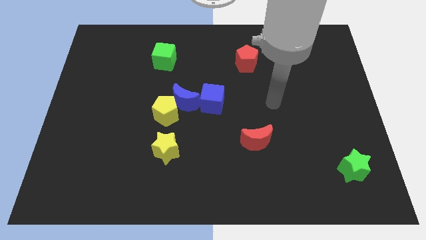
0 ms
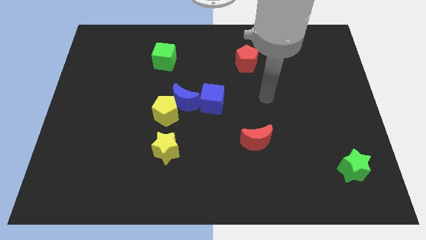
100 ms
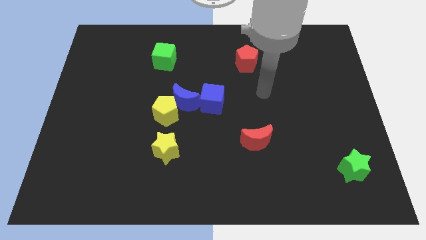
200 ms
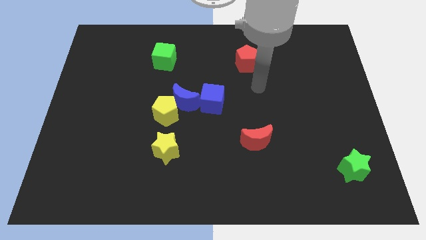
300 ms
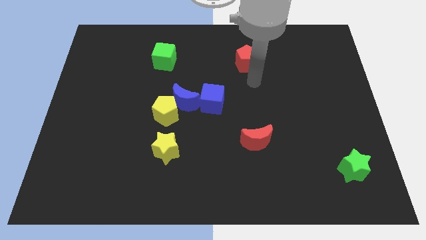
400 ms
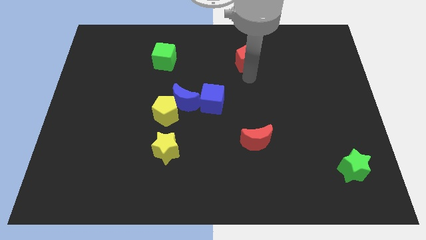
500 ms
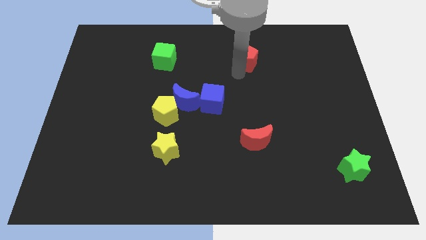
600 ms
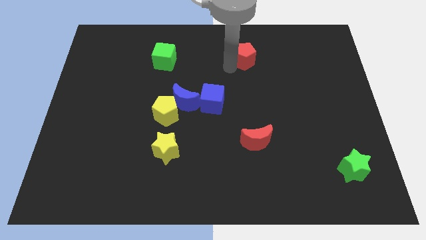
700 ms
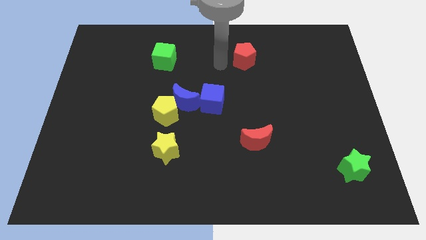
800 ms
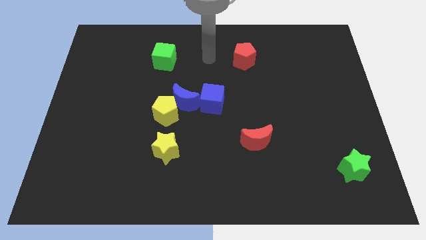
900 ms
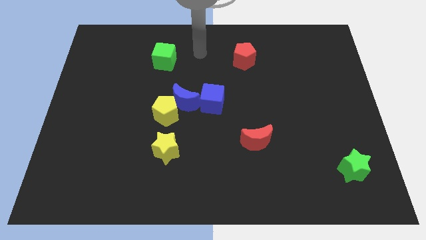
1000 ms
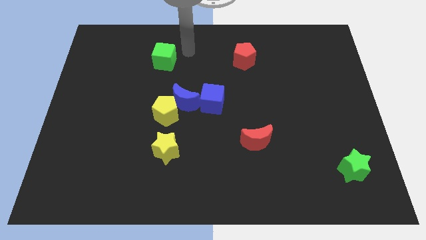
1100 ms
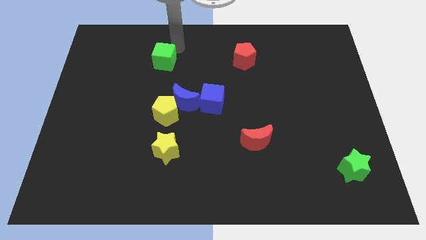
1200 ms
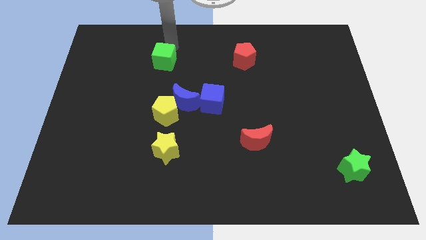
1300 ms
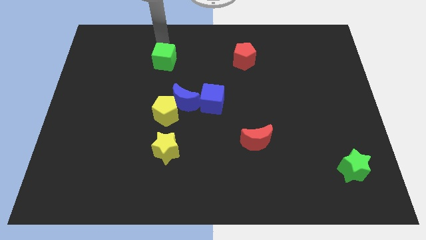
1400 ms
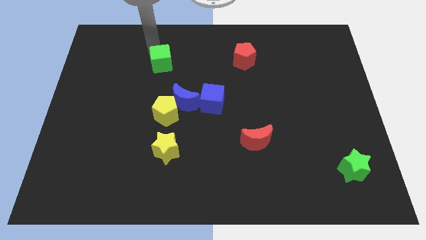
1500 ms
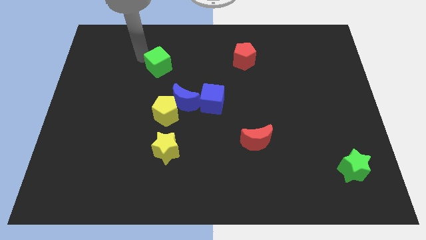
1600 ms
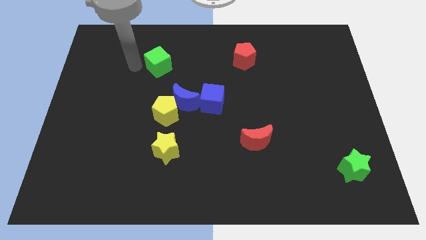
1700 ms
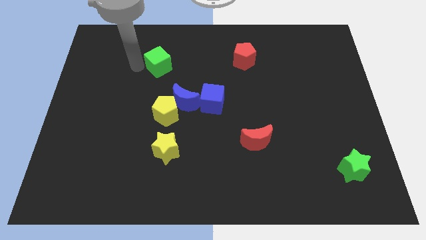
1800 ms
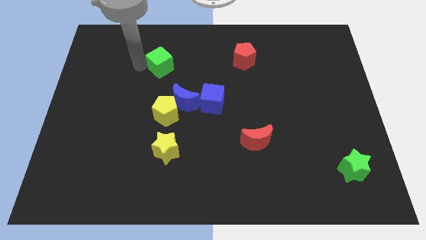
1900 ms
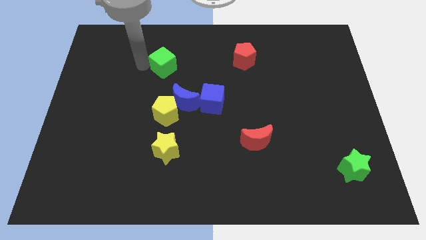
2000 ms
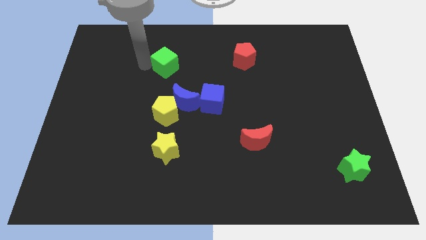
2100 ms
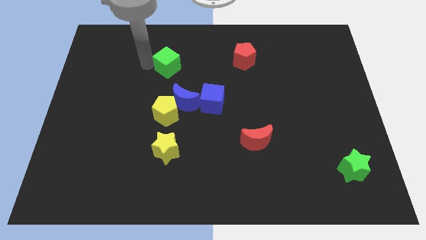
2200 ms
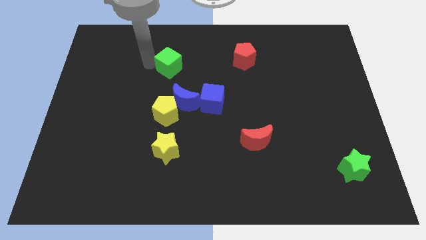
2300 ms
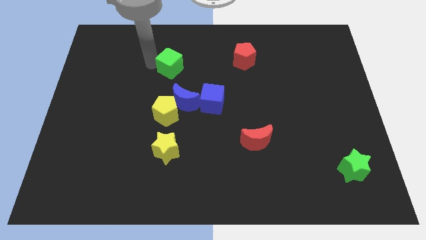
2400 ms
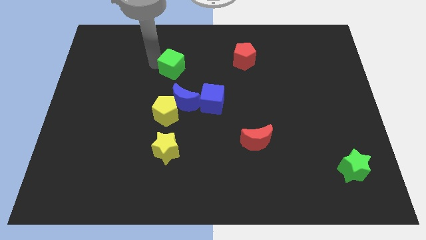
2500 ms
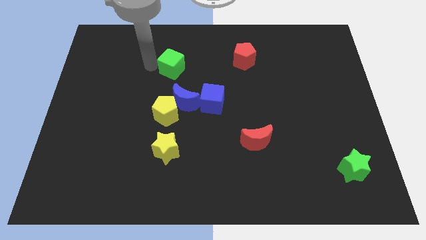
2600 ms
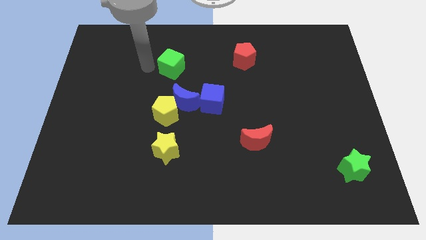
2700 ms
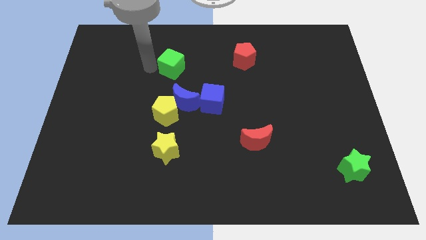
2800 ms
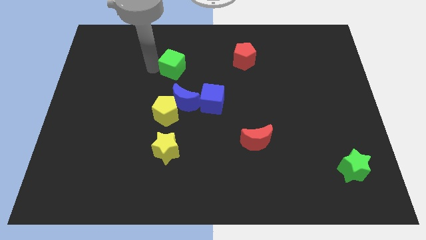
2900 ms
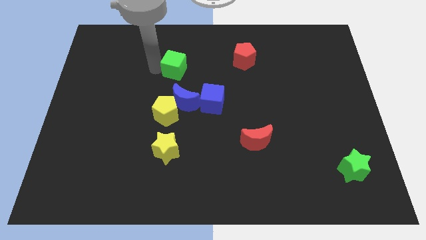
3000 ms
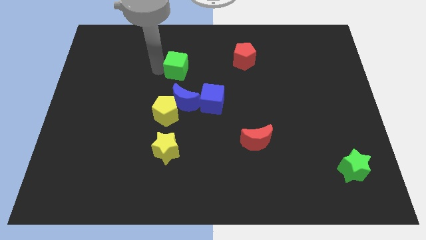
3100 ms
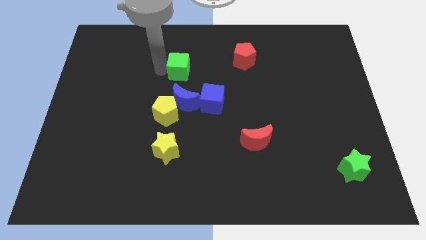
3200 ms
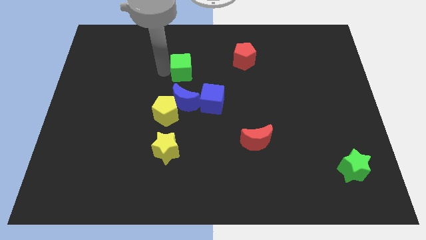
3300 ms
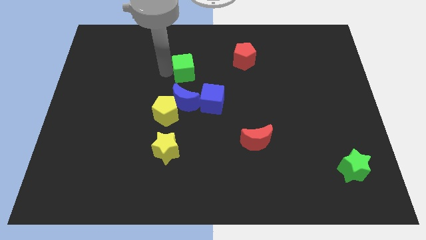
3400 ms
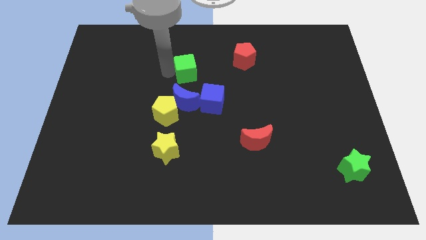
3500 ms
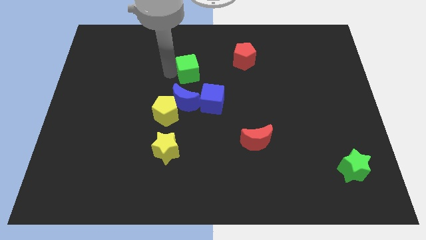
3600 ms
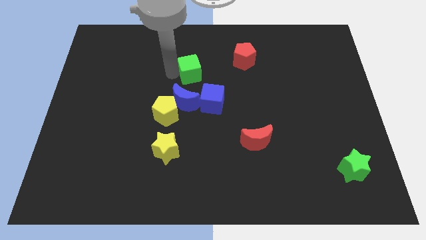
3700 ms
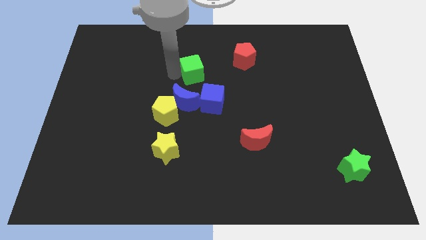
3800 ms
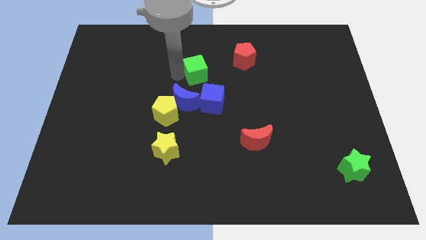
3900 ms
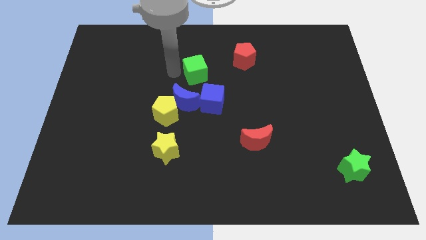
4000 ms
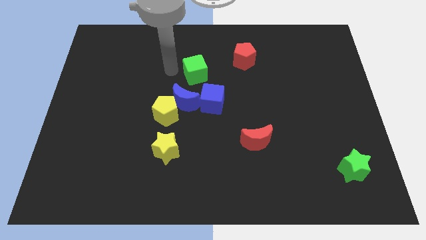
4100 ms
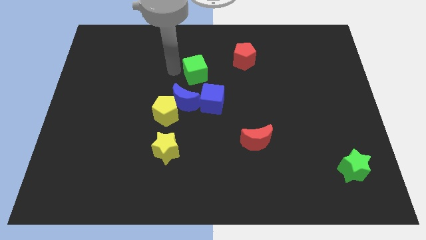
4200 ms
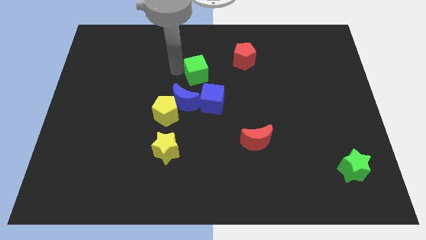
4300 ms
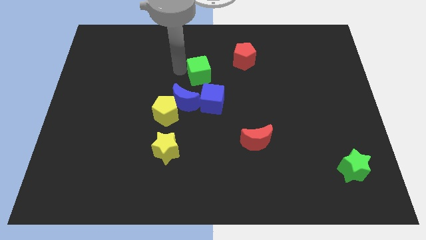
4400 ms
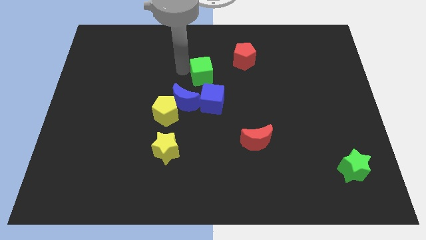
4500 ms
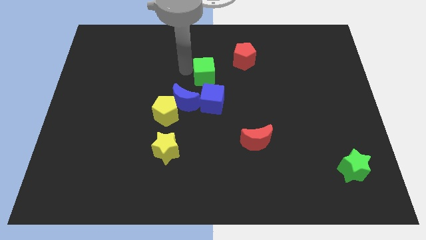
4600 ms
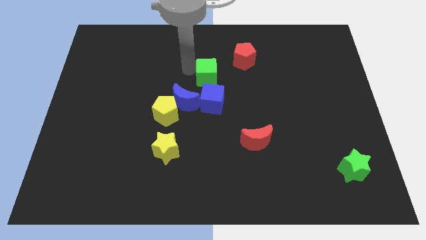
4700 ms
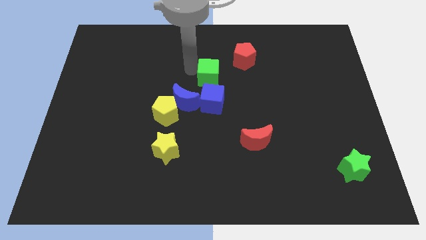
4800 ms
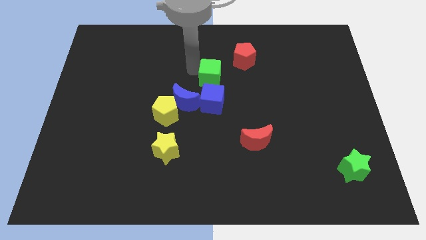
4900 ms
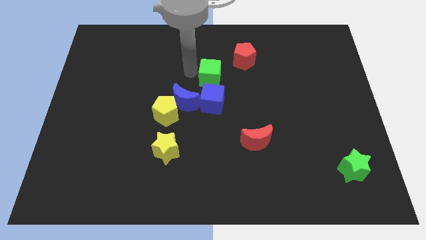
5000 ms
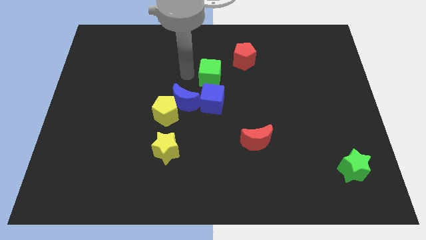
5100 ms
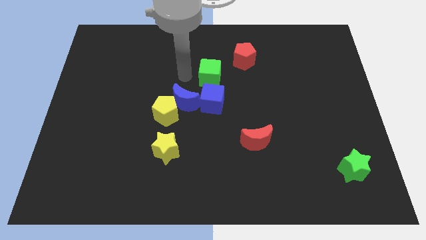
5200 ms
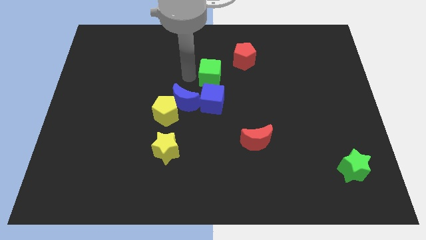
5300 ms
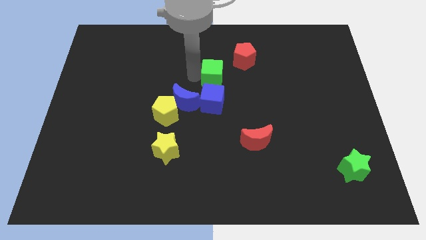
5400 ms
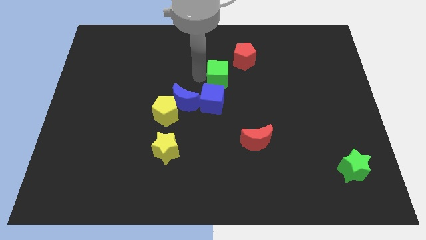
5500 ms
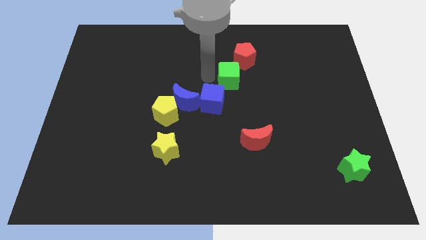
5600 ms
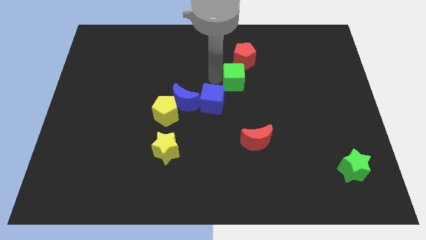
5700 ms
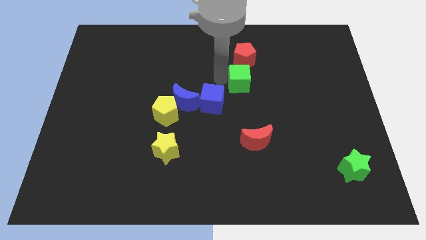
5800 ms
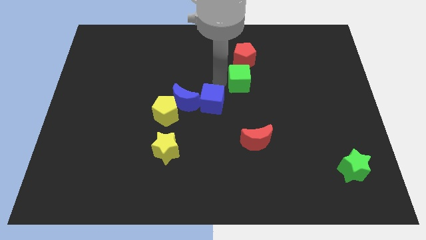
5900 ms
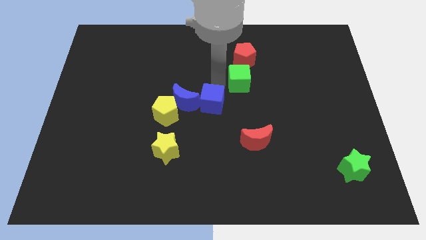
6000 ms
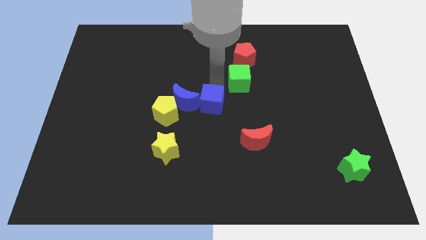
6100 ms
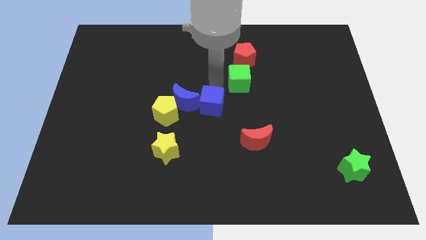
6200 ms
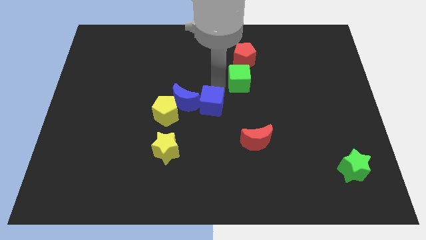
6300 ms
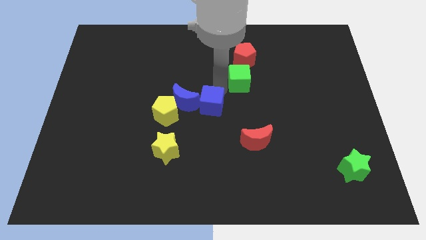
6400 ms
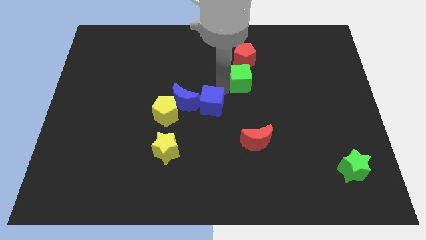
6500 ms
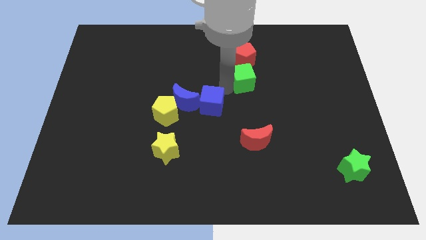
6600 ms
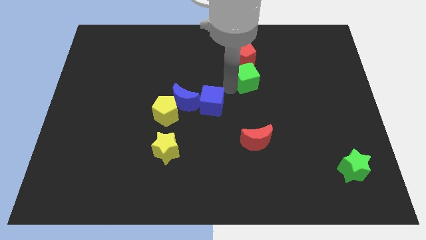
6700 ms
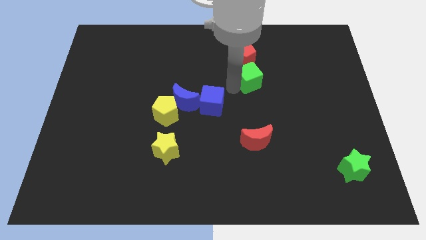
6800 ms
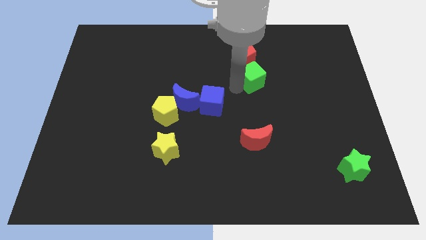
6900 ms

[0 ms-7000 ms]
push the green cube to the right

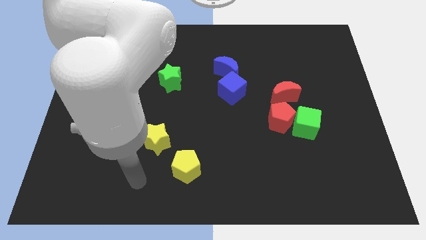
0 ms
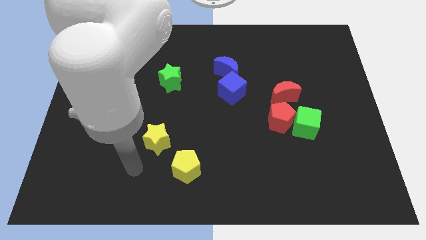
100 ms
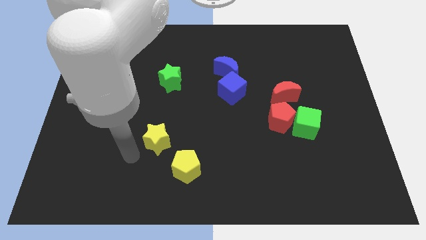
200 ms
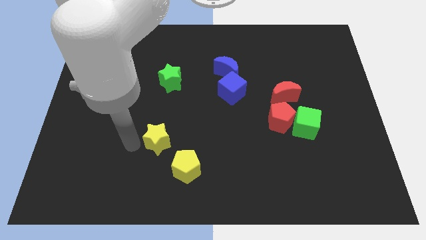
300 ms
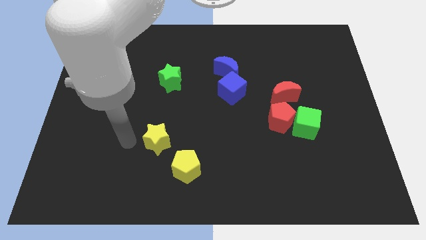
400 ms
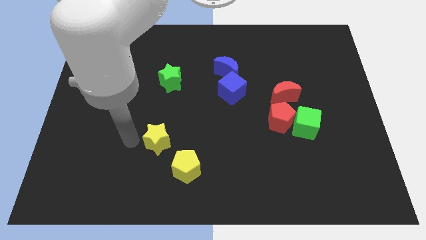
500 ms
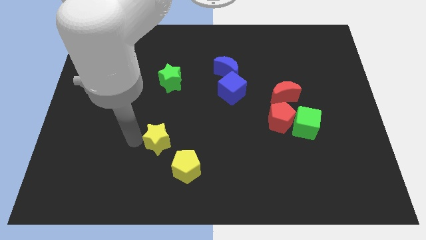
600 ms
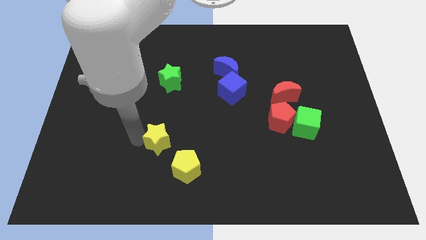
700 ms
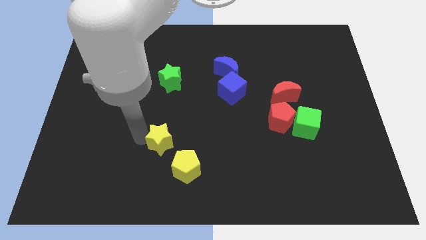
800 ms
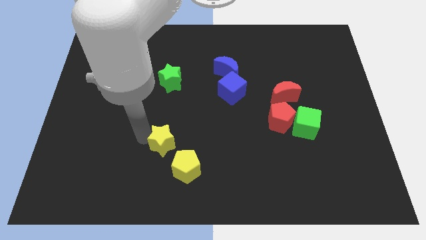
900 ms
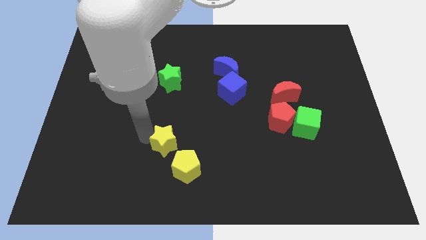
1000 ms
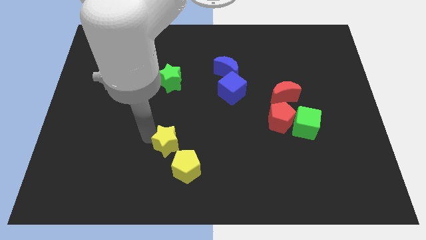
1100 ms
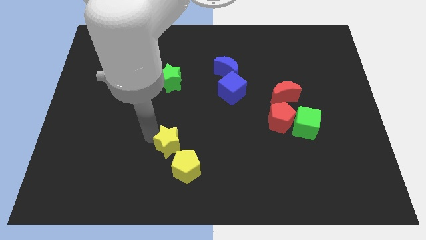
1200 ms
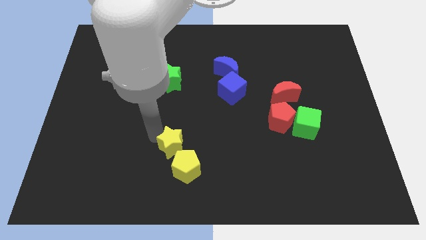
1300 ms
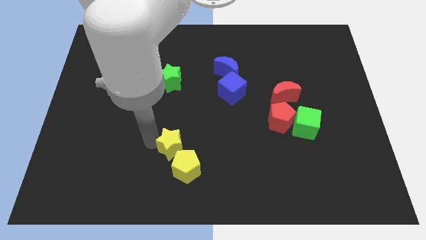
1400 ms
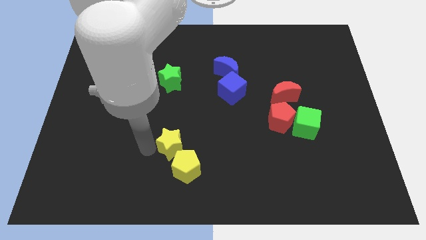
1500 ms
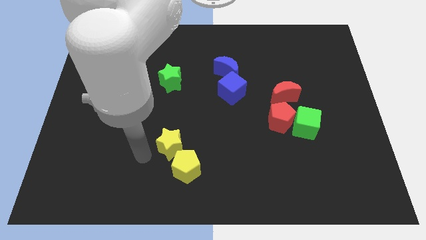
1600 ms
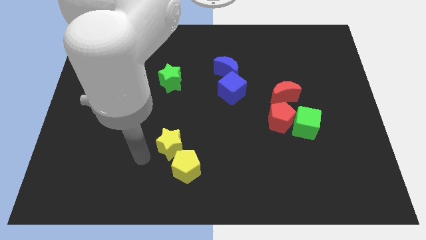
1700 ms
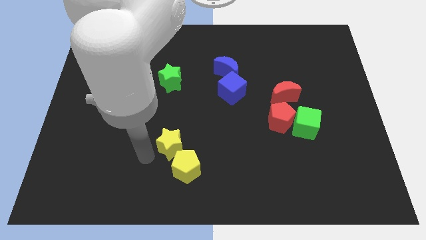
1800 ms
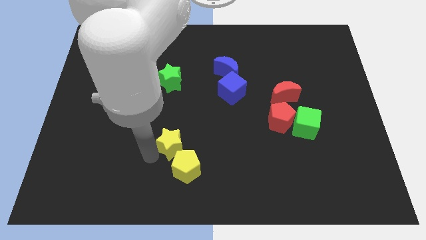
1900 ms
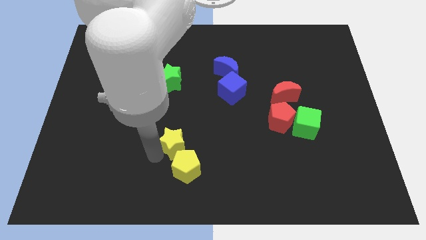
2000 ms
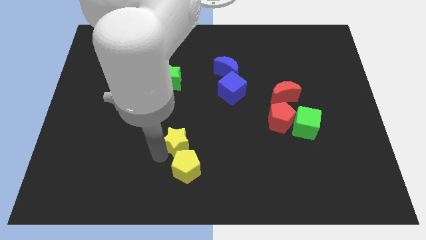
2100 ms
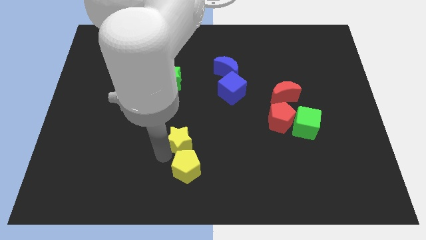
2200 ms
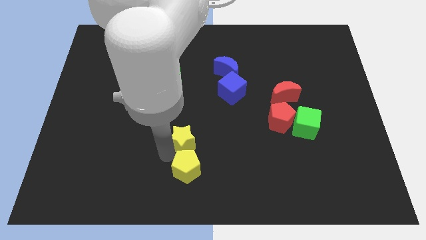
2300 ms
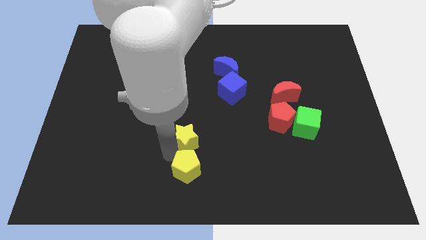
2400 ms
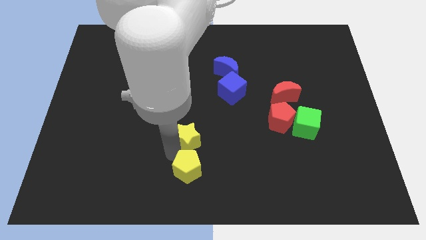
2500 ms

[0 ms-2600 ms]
slightly slide the yellow star to the right
